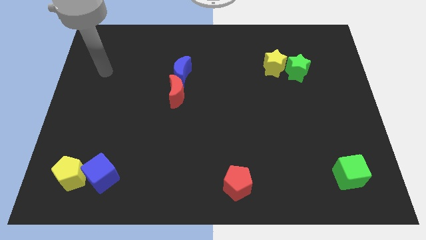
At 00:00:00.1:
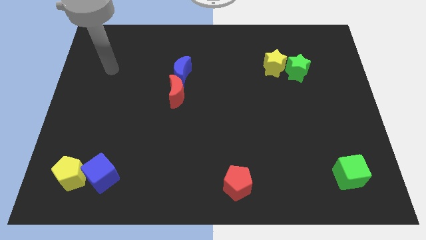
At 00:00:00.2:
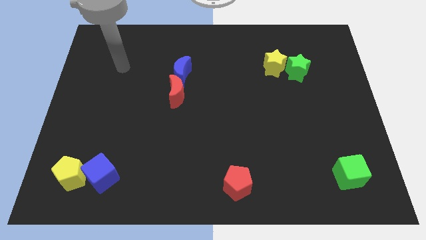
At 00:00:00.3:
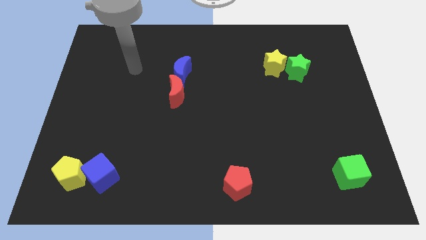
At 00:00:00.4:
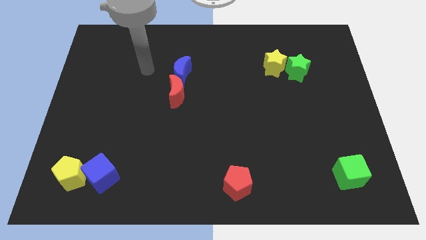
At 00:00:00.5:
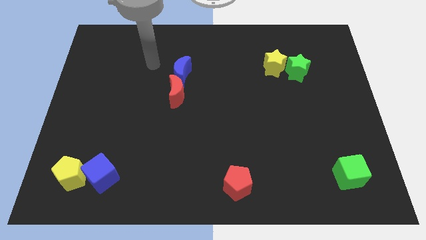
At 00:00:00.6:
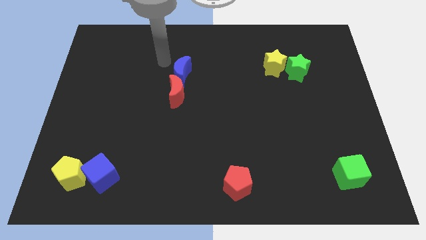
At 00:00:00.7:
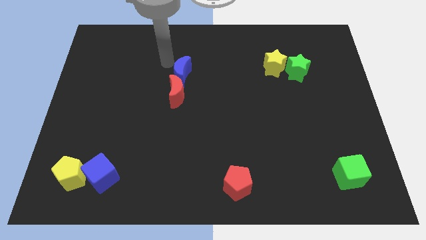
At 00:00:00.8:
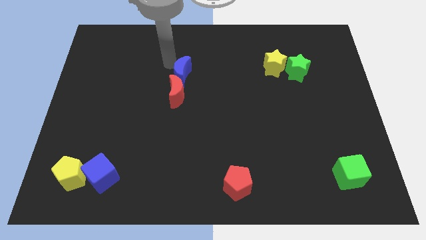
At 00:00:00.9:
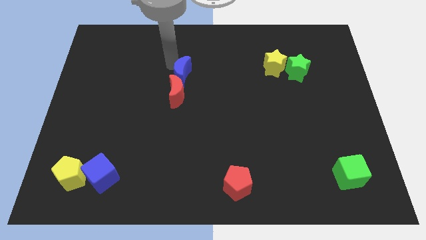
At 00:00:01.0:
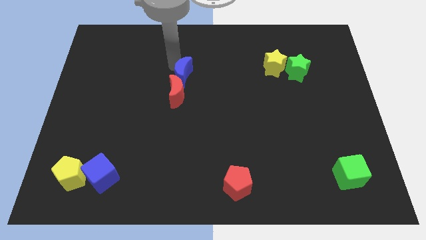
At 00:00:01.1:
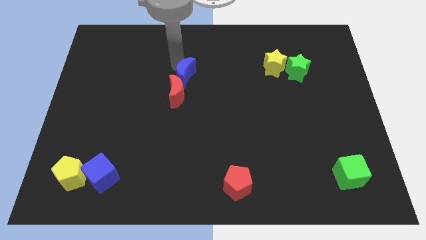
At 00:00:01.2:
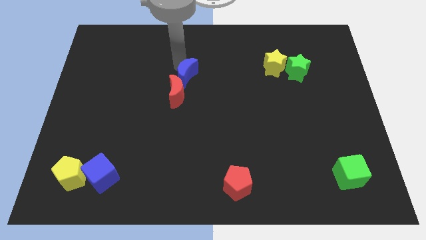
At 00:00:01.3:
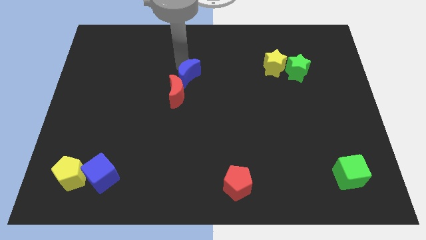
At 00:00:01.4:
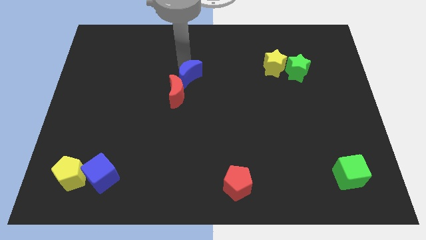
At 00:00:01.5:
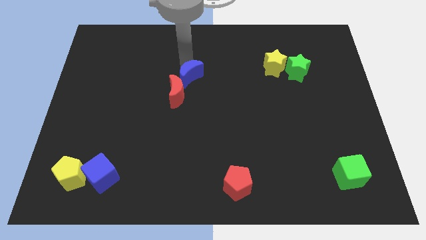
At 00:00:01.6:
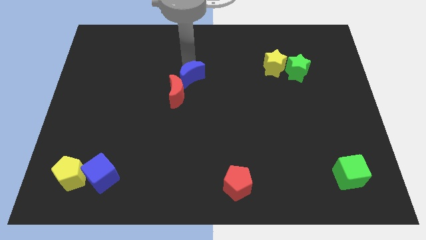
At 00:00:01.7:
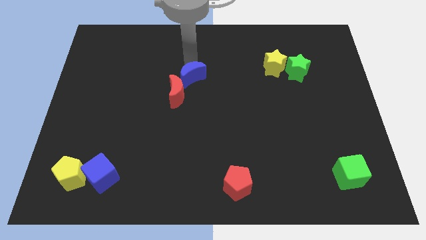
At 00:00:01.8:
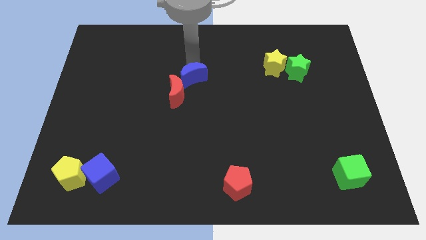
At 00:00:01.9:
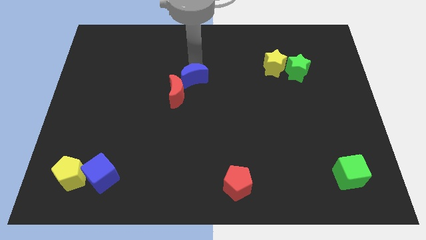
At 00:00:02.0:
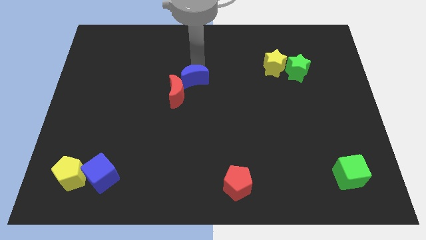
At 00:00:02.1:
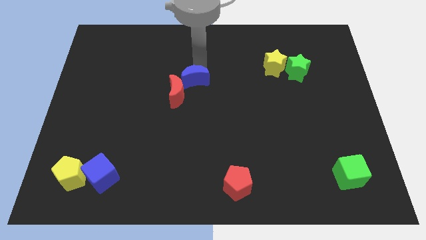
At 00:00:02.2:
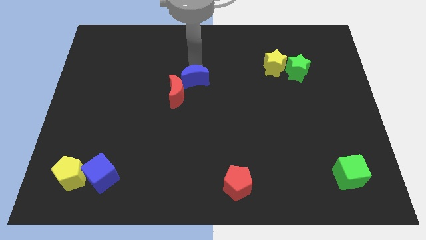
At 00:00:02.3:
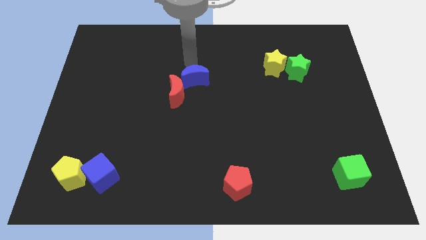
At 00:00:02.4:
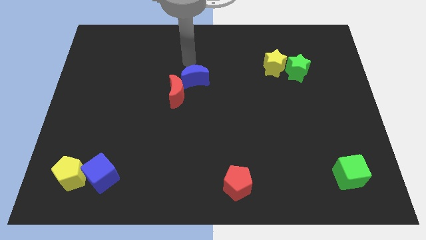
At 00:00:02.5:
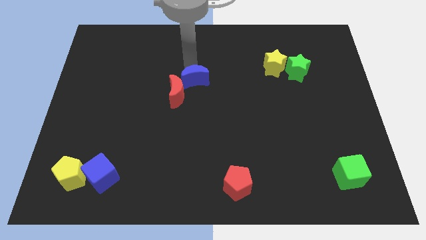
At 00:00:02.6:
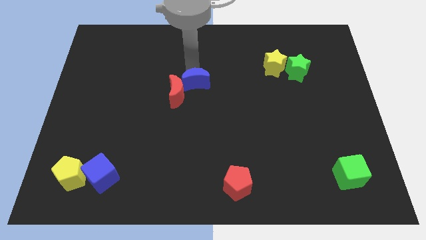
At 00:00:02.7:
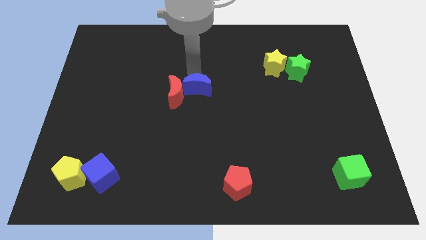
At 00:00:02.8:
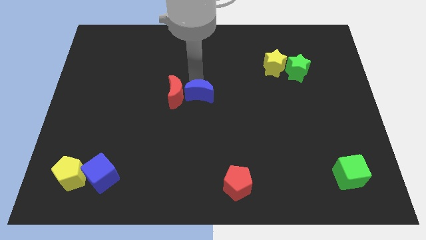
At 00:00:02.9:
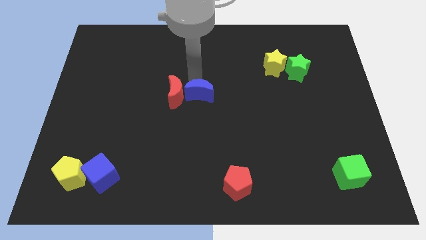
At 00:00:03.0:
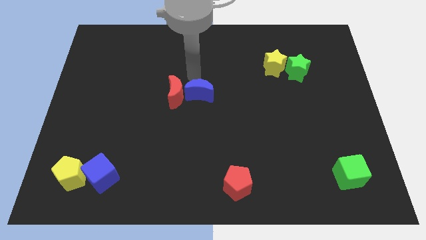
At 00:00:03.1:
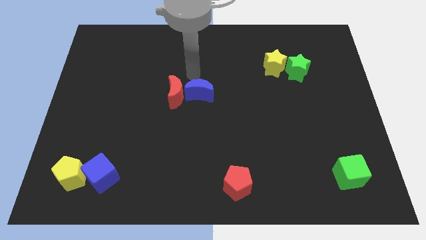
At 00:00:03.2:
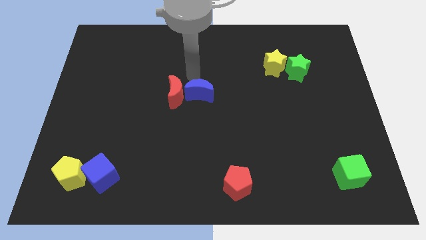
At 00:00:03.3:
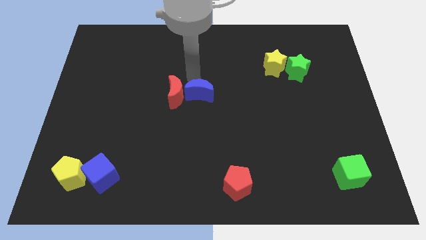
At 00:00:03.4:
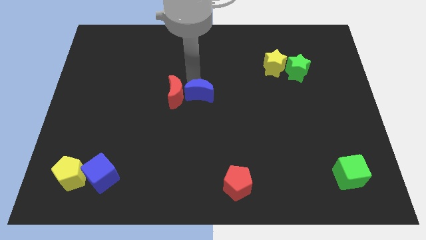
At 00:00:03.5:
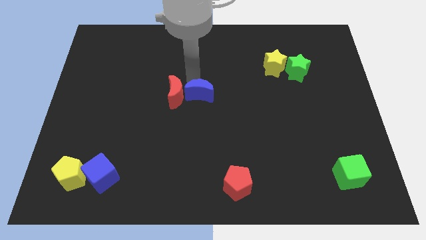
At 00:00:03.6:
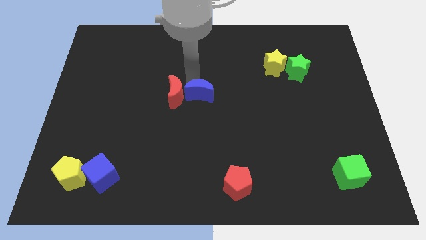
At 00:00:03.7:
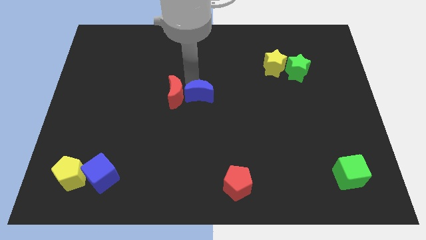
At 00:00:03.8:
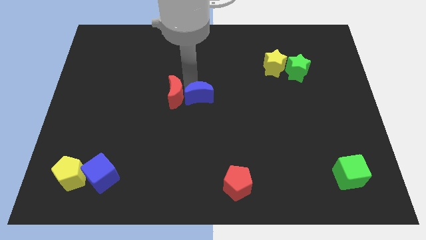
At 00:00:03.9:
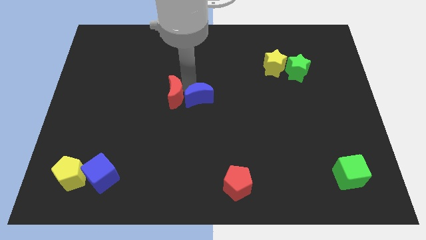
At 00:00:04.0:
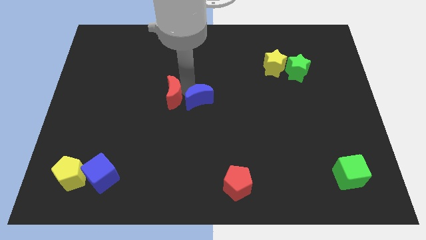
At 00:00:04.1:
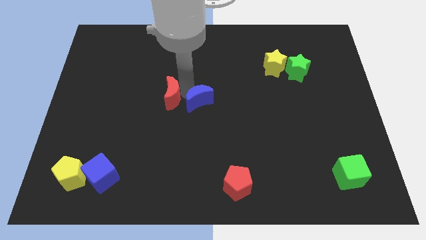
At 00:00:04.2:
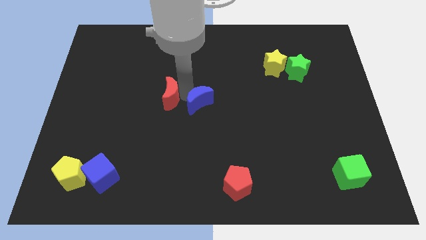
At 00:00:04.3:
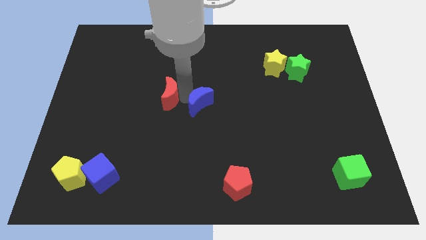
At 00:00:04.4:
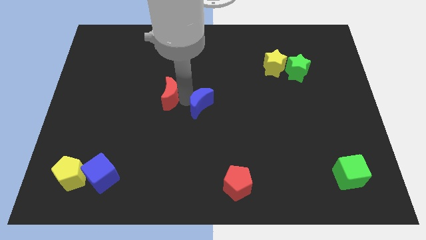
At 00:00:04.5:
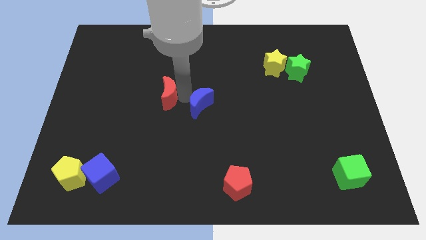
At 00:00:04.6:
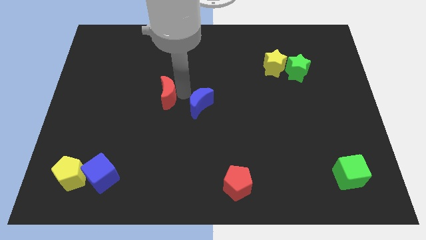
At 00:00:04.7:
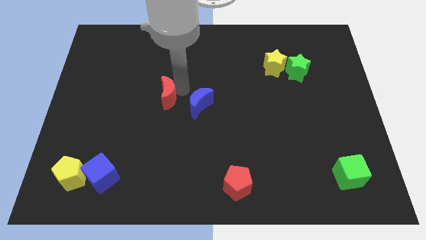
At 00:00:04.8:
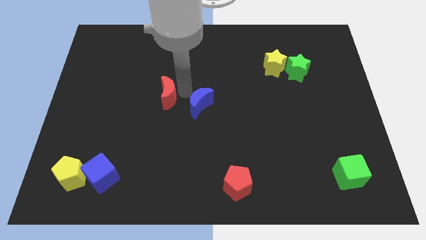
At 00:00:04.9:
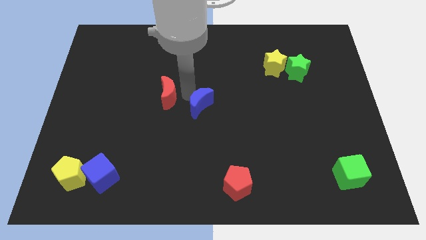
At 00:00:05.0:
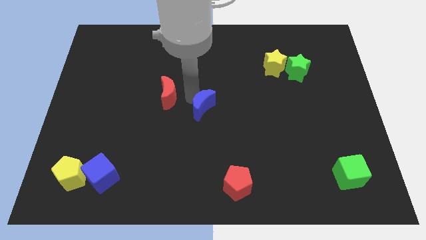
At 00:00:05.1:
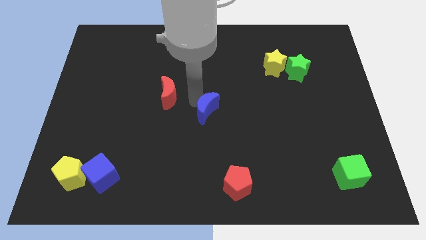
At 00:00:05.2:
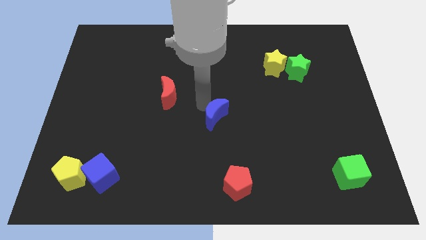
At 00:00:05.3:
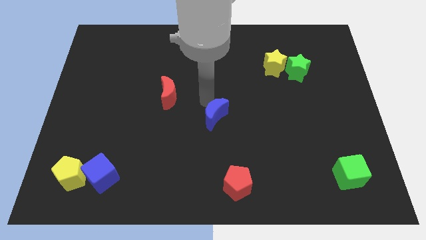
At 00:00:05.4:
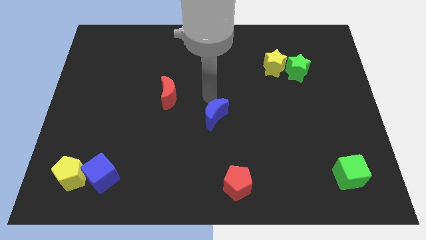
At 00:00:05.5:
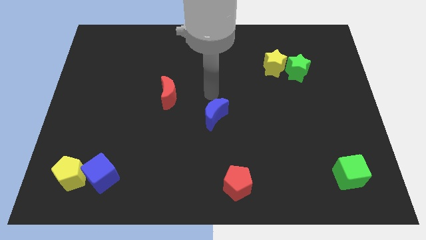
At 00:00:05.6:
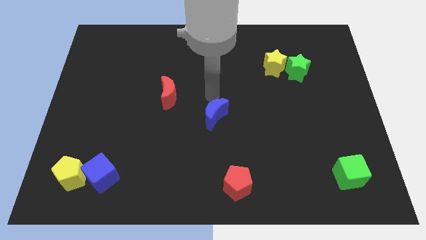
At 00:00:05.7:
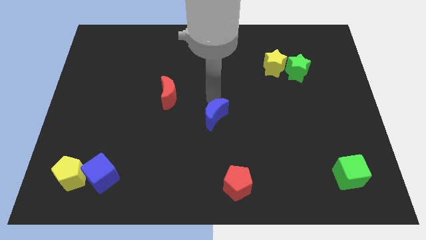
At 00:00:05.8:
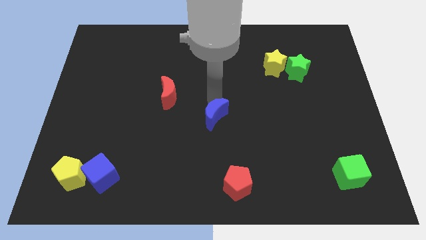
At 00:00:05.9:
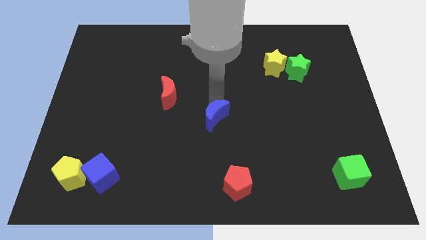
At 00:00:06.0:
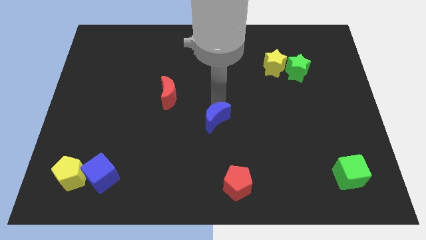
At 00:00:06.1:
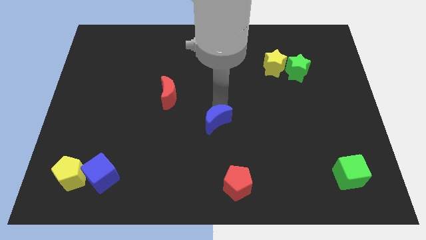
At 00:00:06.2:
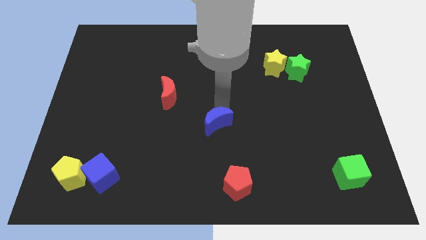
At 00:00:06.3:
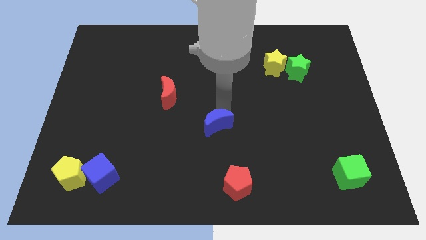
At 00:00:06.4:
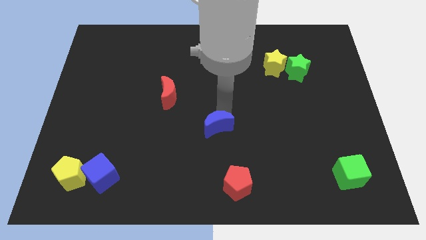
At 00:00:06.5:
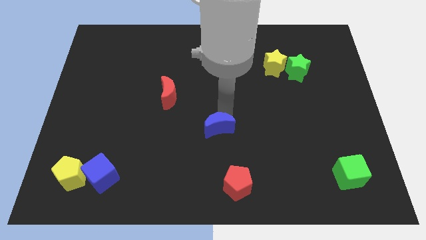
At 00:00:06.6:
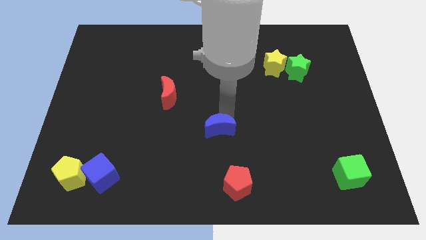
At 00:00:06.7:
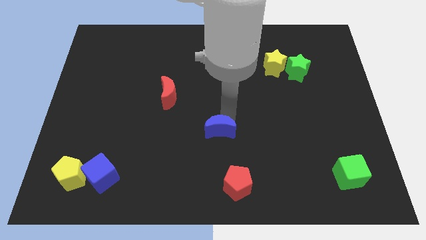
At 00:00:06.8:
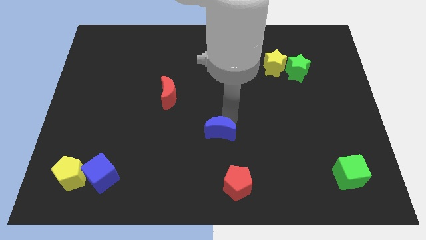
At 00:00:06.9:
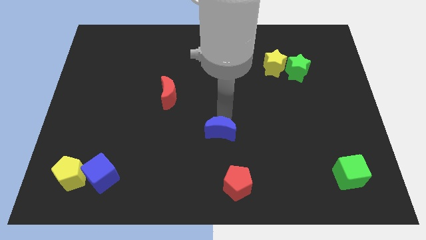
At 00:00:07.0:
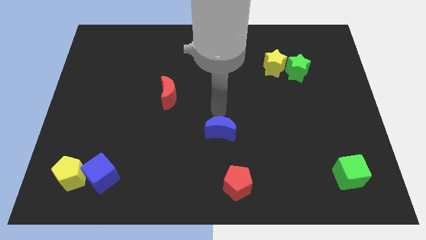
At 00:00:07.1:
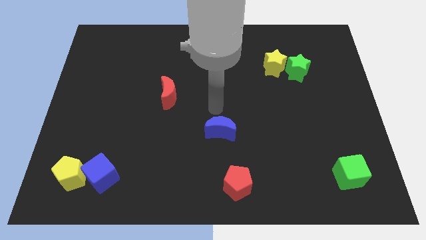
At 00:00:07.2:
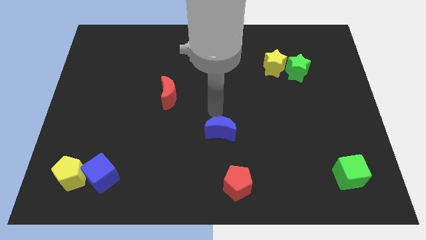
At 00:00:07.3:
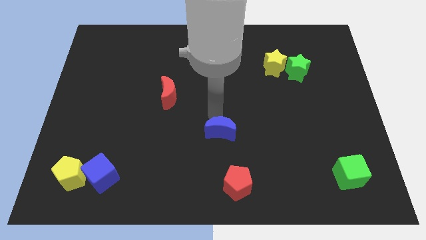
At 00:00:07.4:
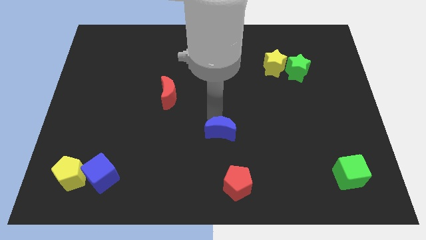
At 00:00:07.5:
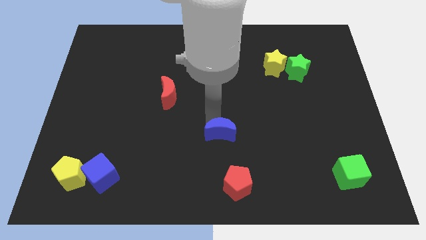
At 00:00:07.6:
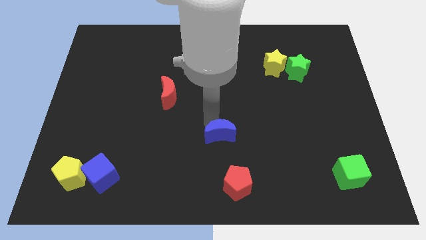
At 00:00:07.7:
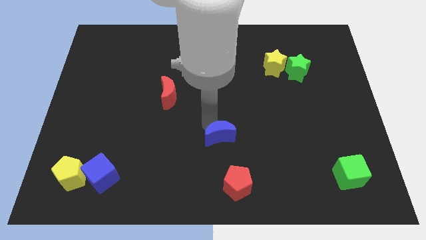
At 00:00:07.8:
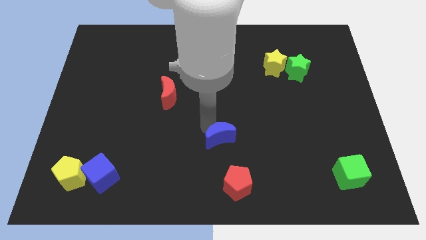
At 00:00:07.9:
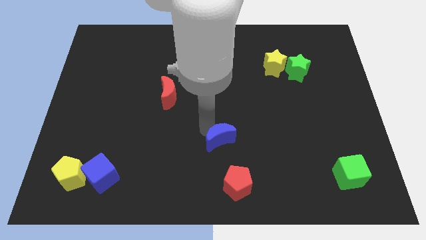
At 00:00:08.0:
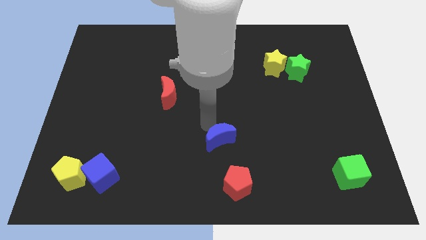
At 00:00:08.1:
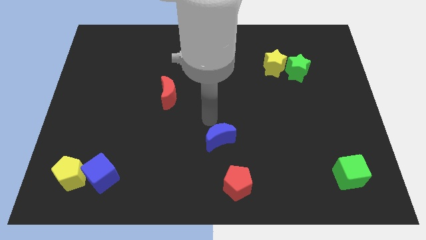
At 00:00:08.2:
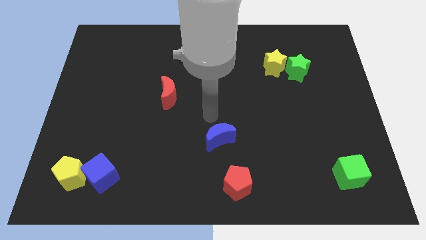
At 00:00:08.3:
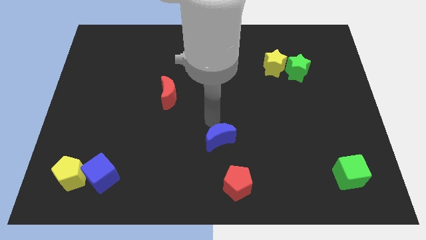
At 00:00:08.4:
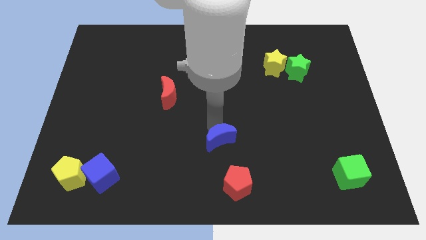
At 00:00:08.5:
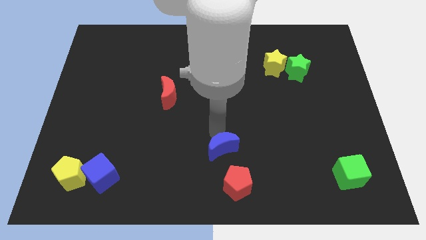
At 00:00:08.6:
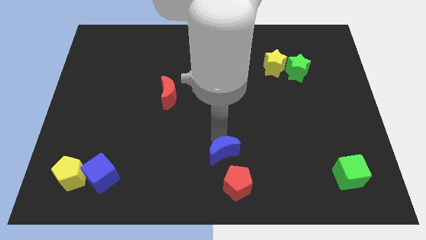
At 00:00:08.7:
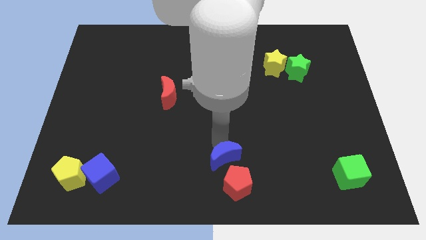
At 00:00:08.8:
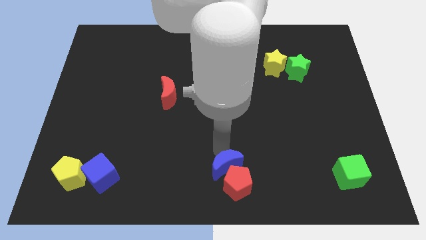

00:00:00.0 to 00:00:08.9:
push the blue moon towards the red pentagon
